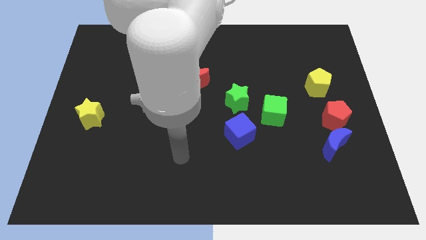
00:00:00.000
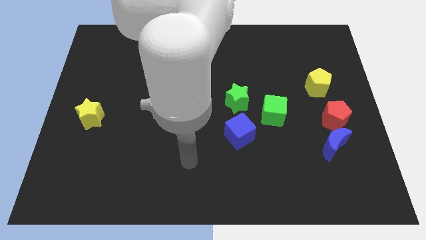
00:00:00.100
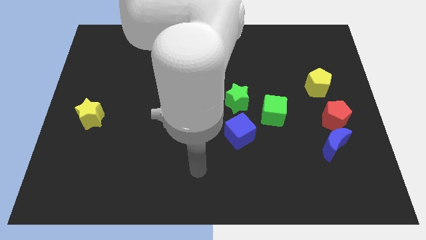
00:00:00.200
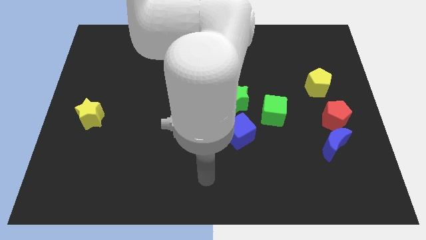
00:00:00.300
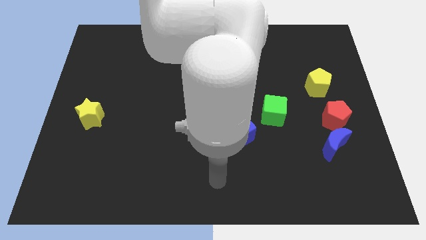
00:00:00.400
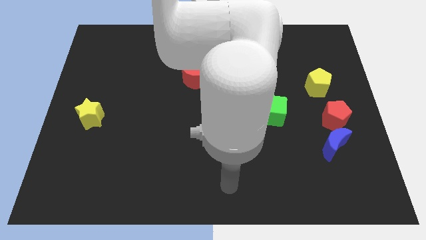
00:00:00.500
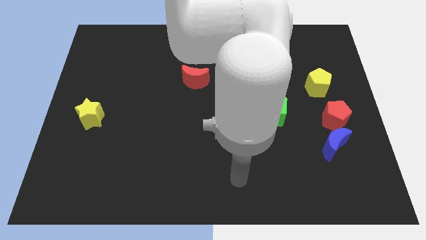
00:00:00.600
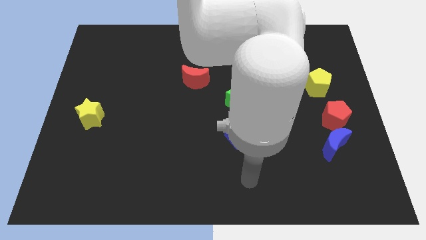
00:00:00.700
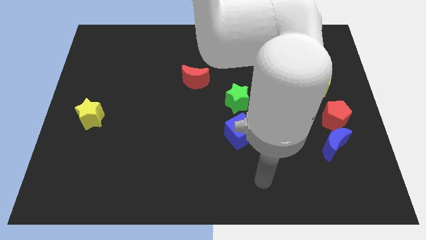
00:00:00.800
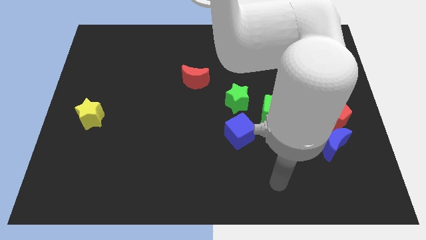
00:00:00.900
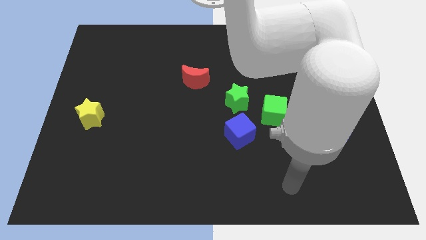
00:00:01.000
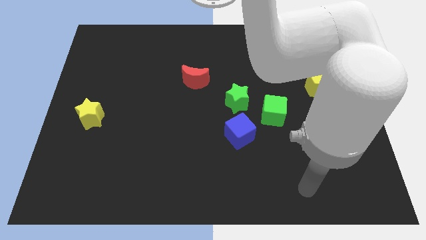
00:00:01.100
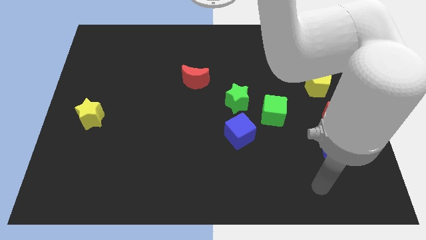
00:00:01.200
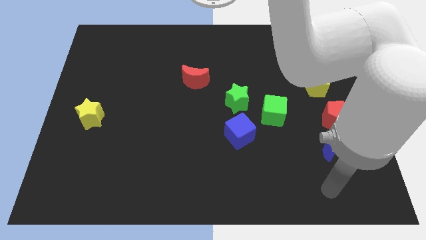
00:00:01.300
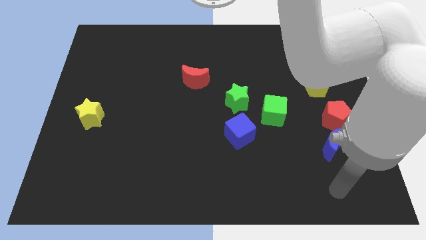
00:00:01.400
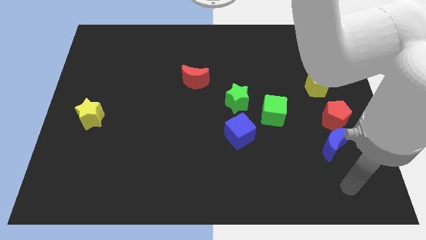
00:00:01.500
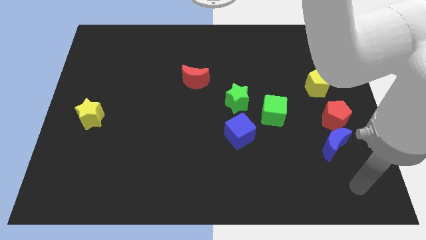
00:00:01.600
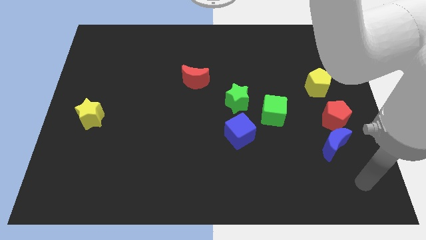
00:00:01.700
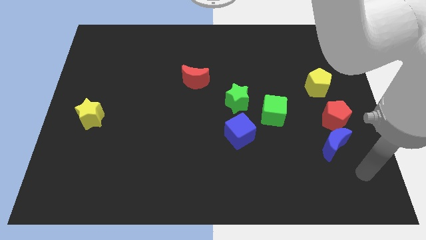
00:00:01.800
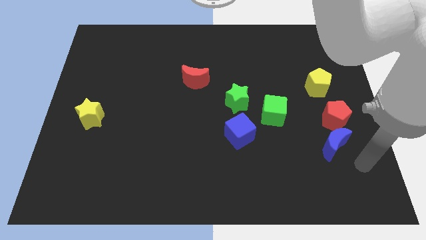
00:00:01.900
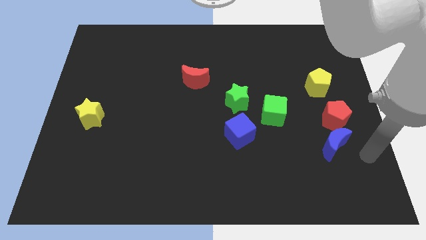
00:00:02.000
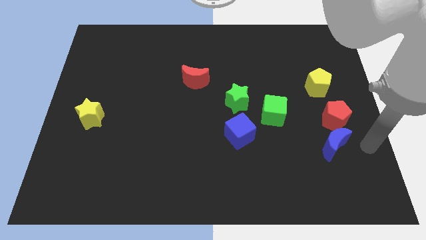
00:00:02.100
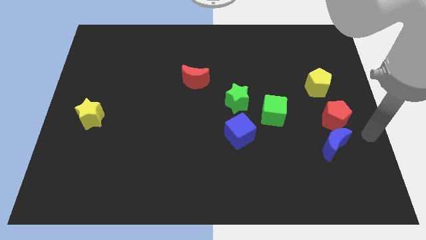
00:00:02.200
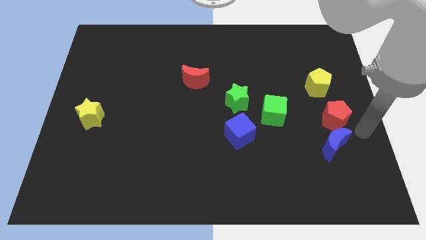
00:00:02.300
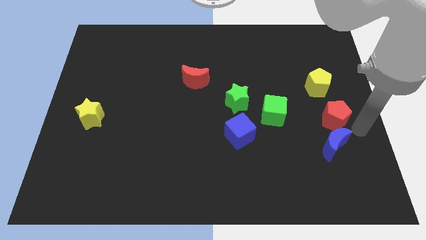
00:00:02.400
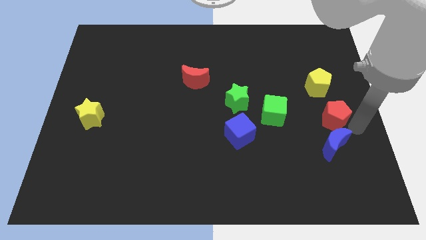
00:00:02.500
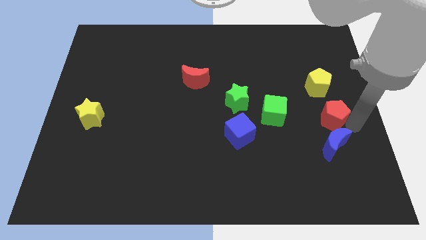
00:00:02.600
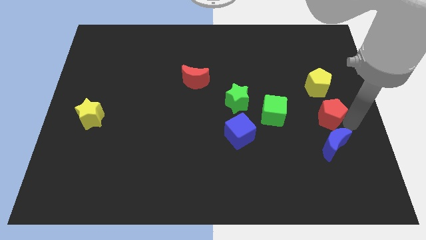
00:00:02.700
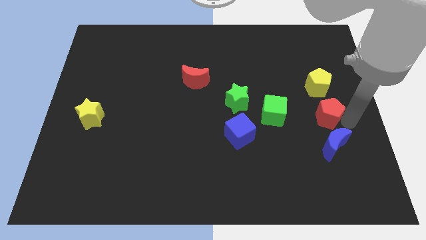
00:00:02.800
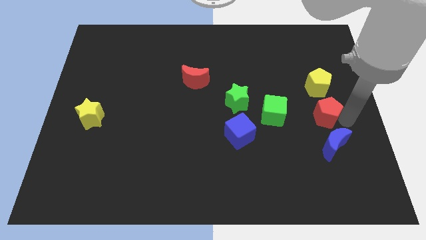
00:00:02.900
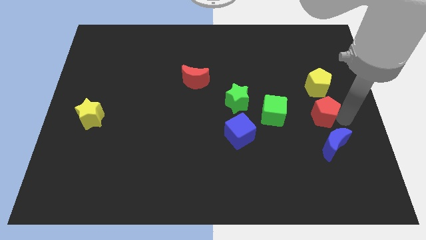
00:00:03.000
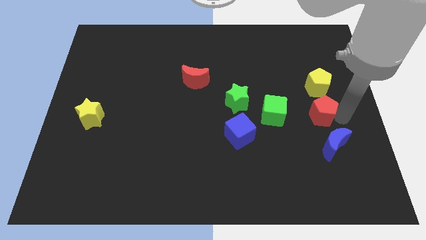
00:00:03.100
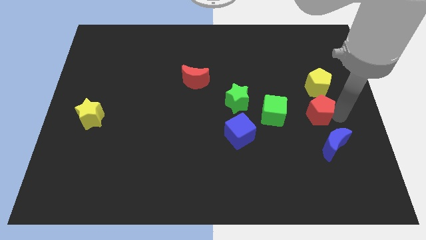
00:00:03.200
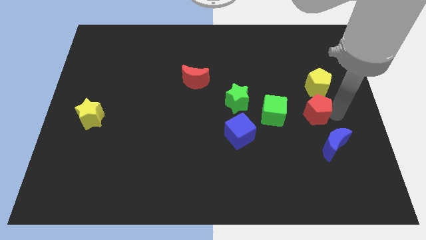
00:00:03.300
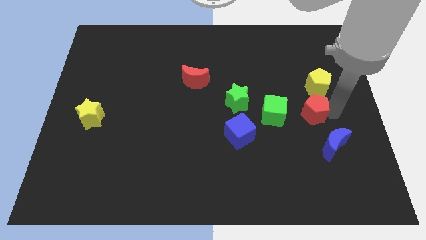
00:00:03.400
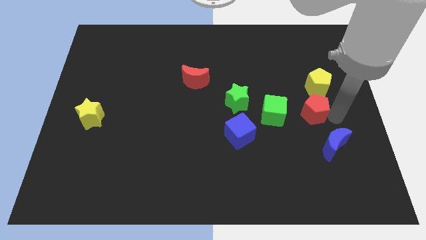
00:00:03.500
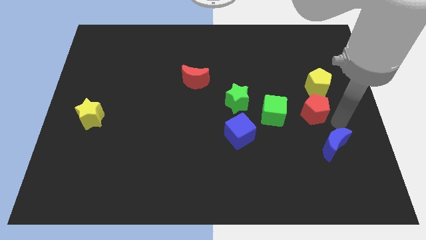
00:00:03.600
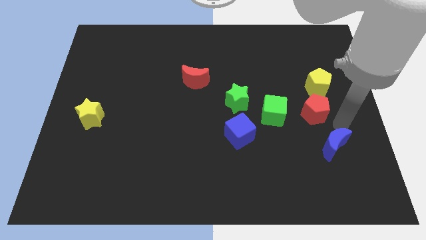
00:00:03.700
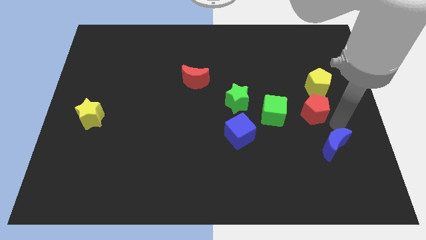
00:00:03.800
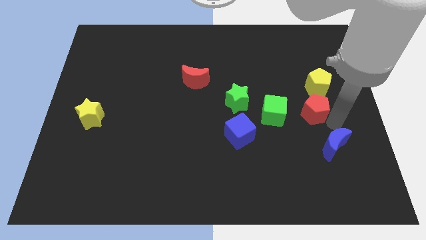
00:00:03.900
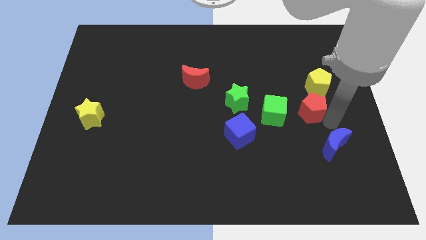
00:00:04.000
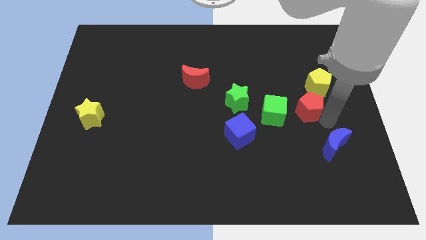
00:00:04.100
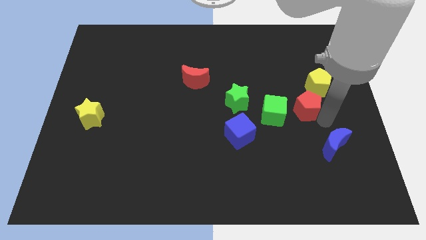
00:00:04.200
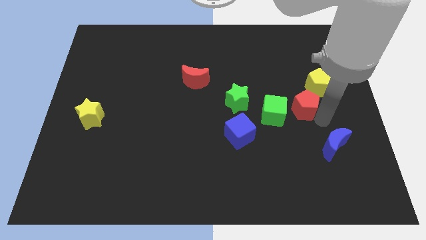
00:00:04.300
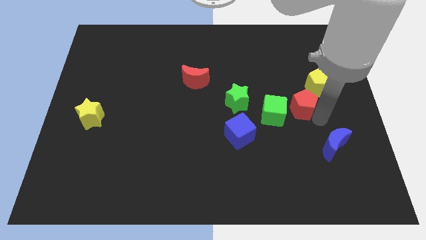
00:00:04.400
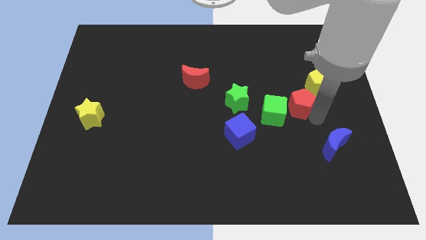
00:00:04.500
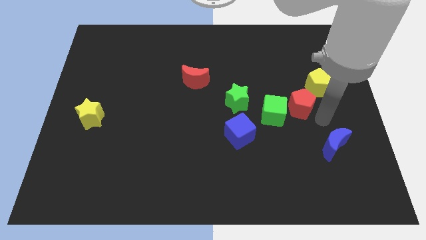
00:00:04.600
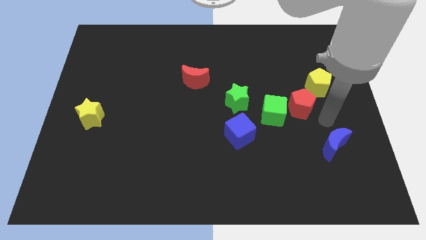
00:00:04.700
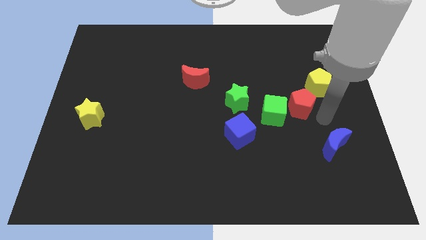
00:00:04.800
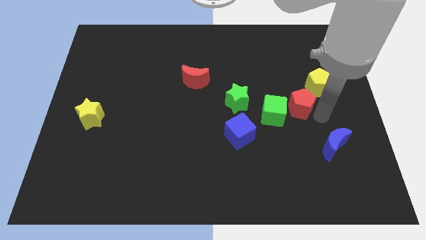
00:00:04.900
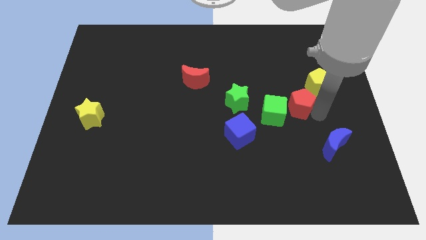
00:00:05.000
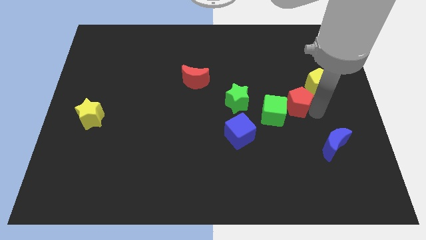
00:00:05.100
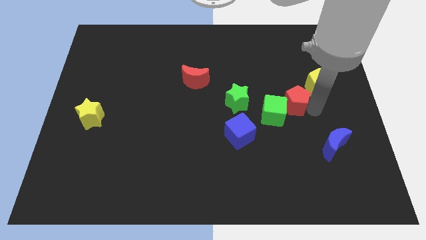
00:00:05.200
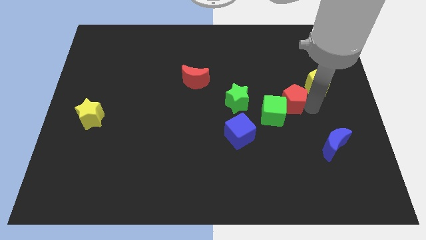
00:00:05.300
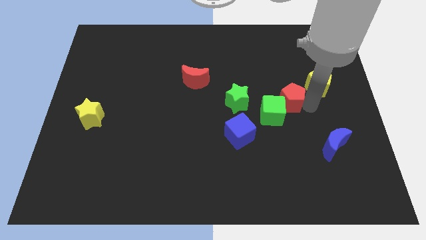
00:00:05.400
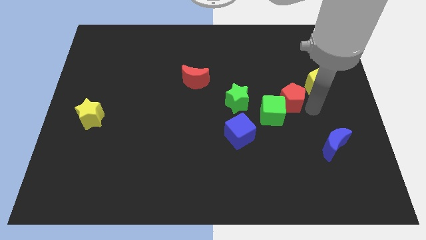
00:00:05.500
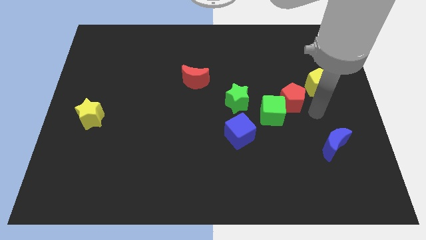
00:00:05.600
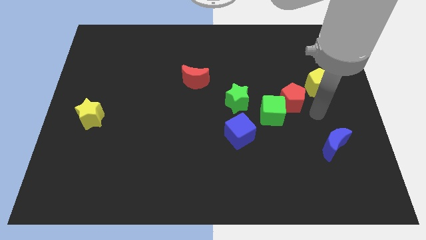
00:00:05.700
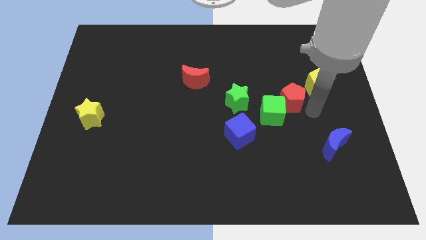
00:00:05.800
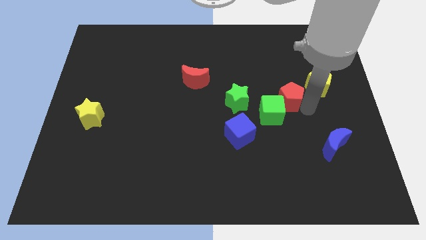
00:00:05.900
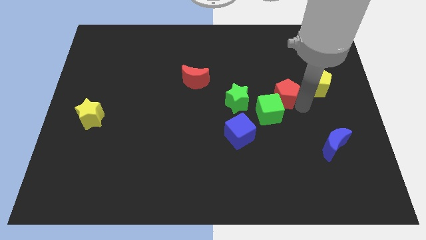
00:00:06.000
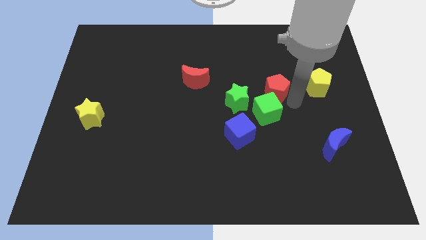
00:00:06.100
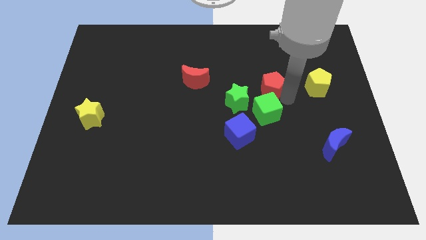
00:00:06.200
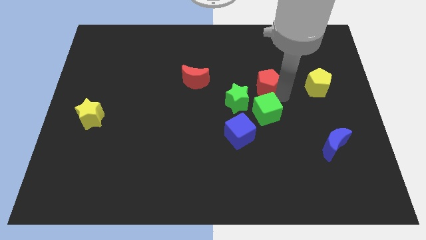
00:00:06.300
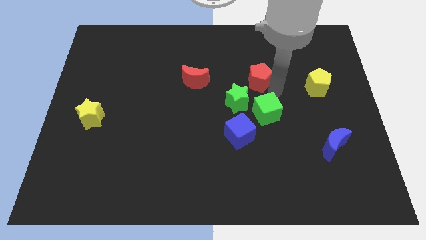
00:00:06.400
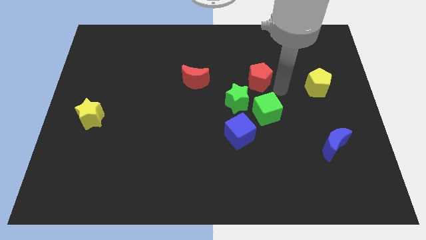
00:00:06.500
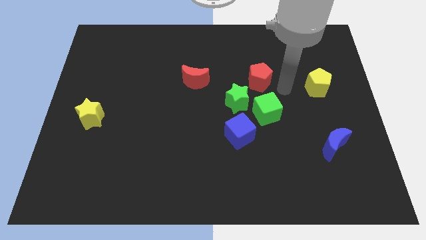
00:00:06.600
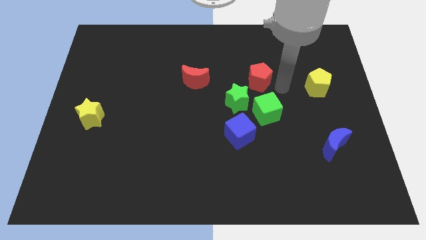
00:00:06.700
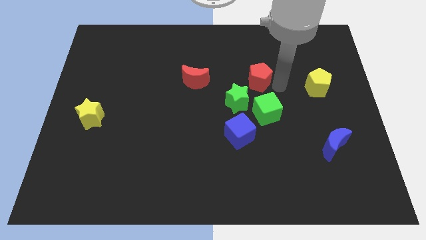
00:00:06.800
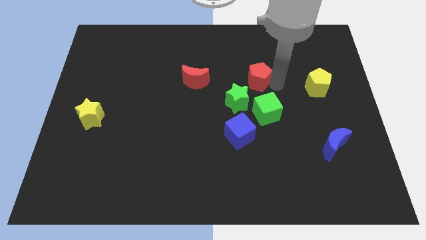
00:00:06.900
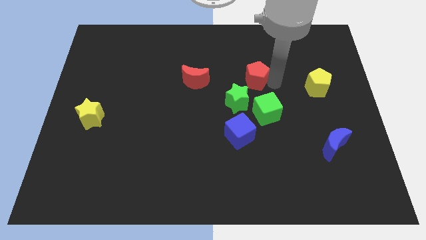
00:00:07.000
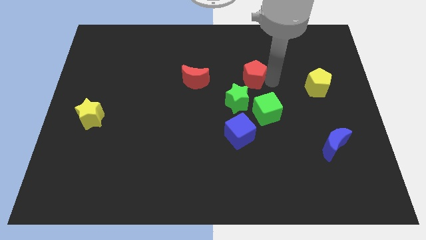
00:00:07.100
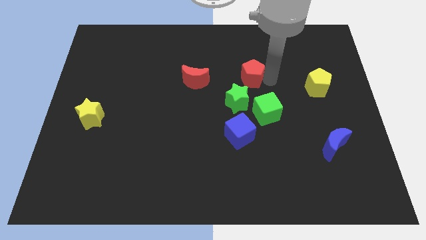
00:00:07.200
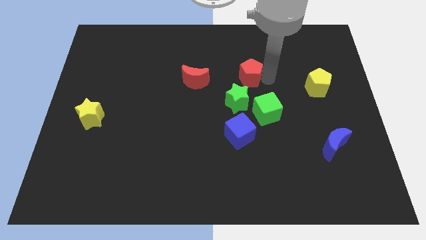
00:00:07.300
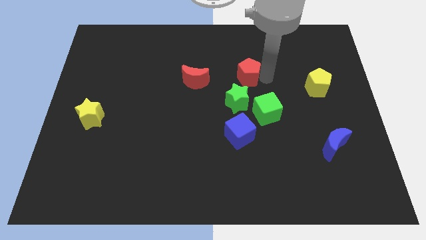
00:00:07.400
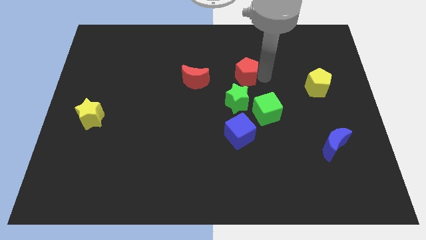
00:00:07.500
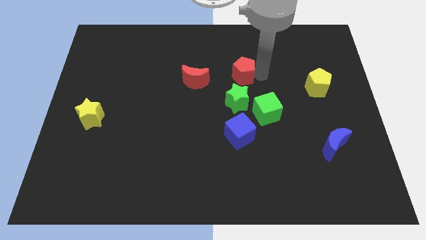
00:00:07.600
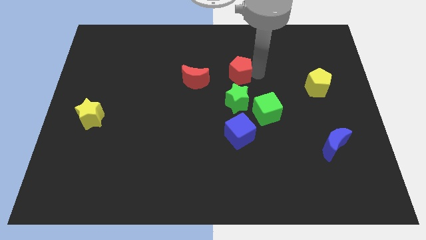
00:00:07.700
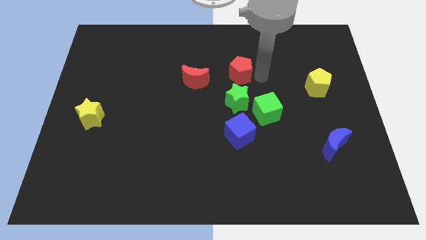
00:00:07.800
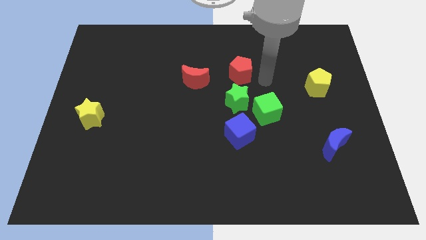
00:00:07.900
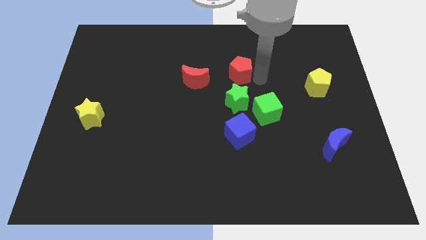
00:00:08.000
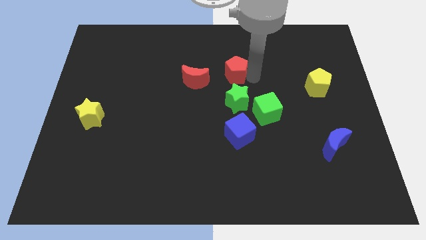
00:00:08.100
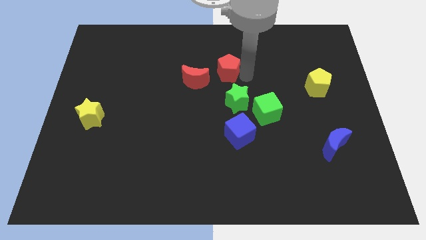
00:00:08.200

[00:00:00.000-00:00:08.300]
put the red pentagon to the top right of the red moon
